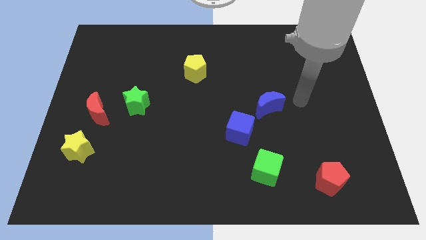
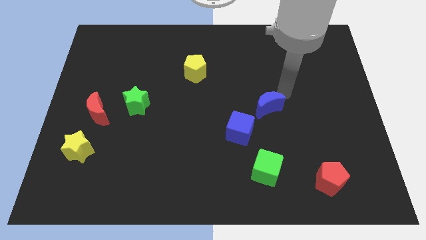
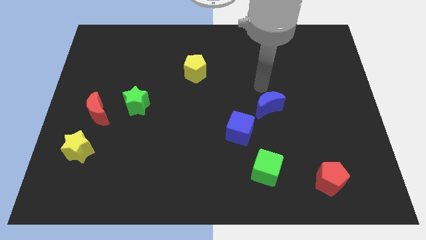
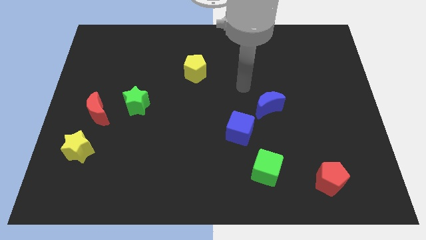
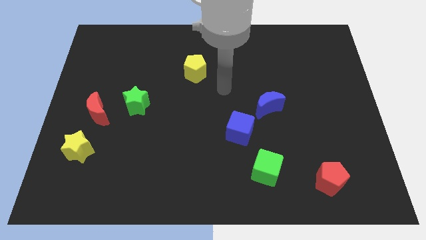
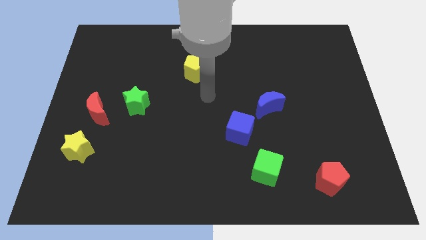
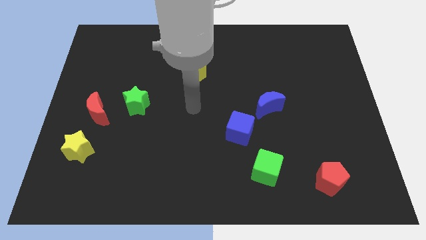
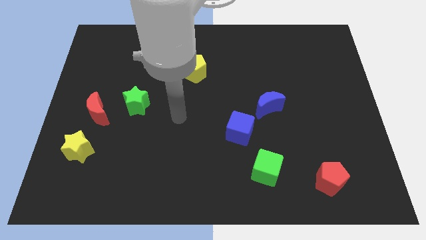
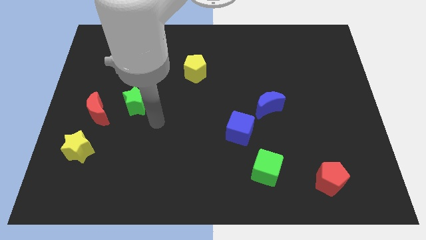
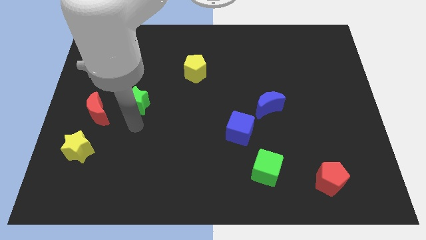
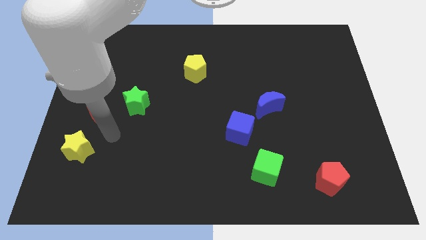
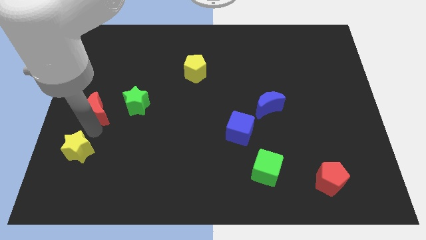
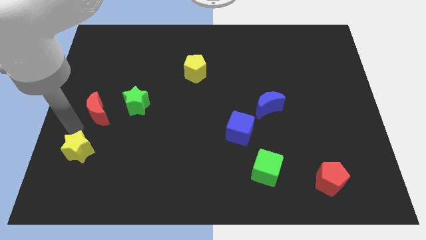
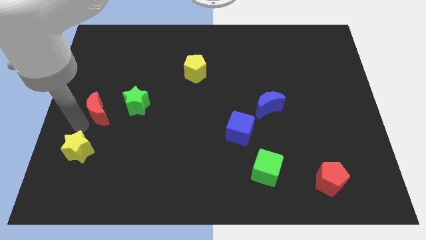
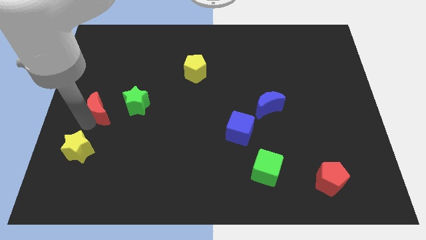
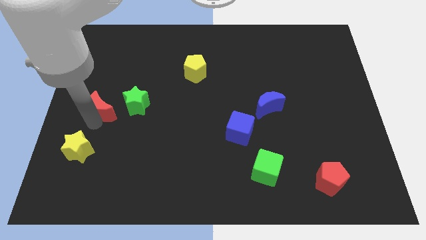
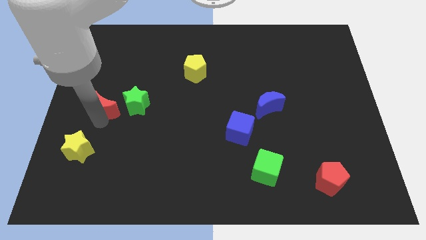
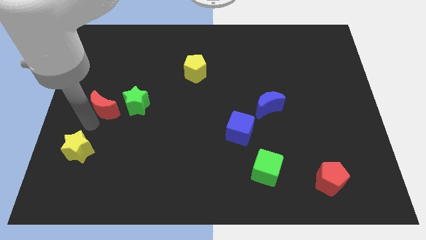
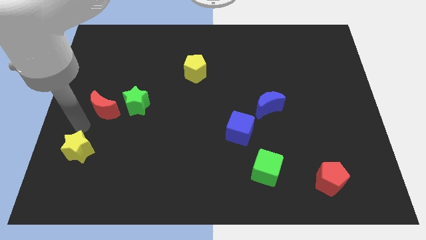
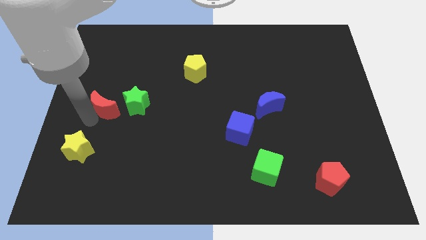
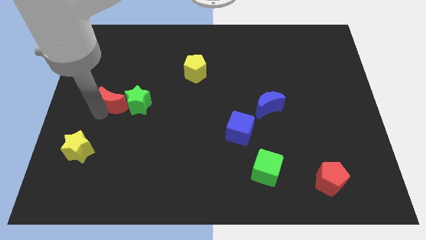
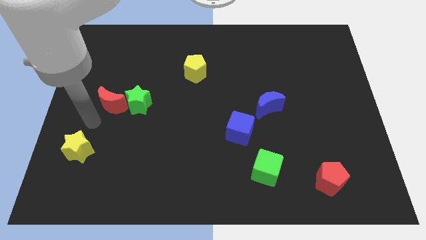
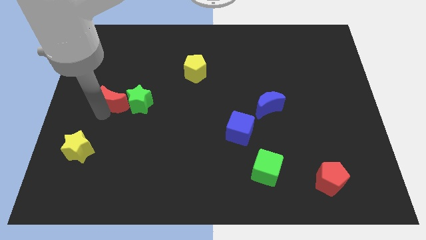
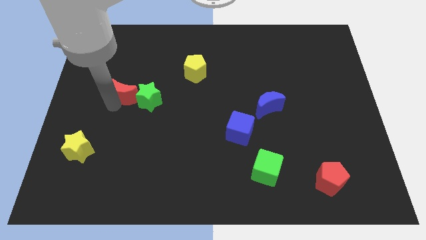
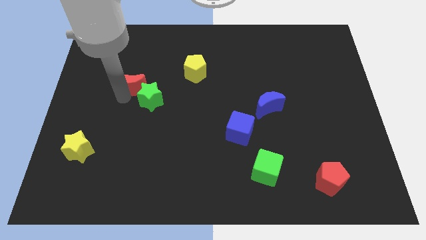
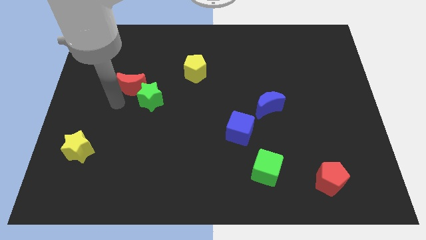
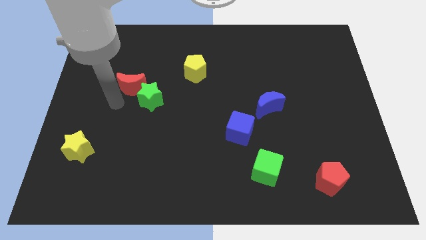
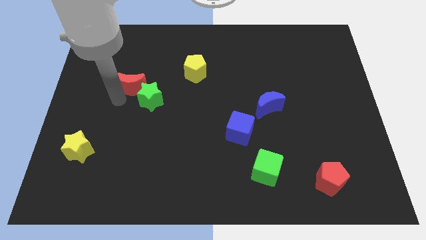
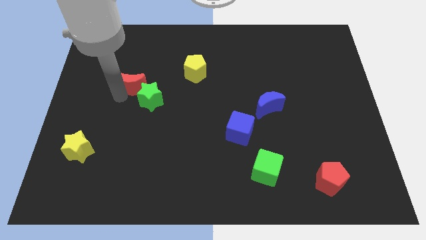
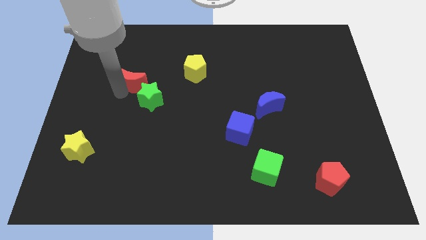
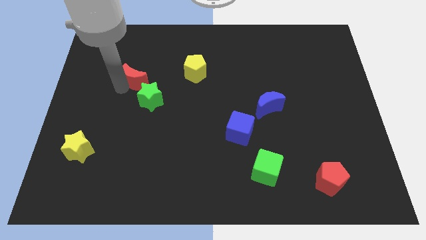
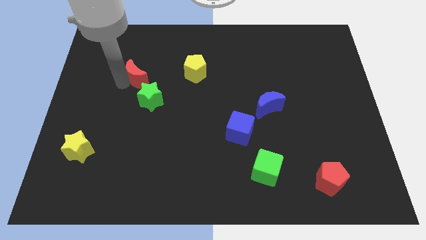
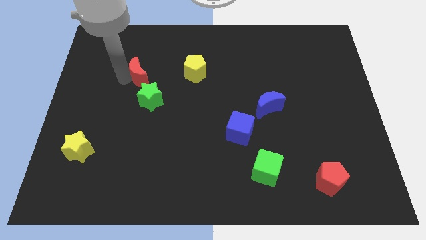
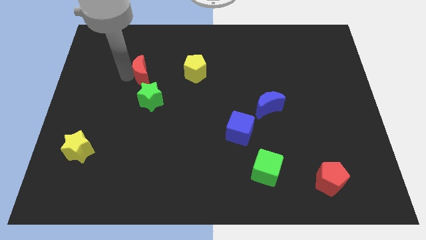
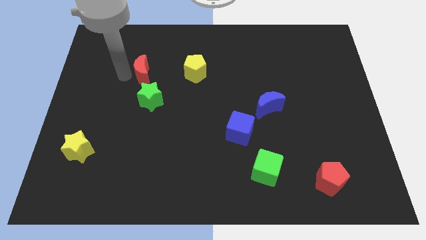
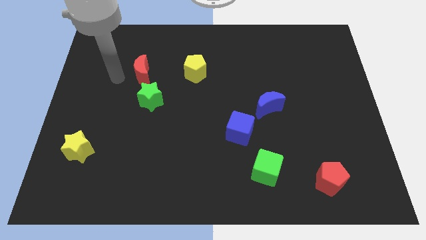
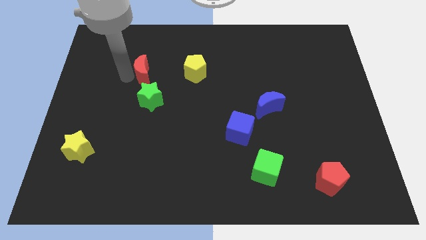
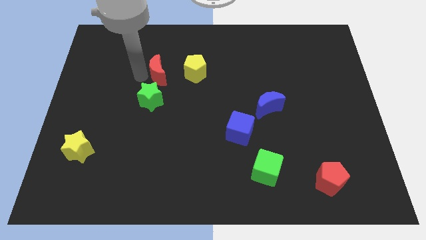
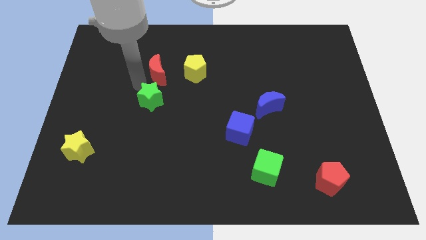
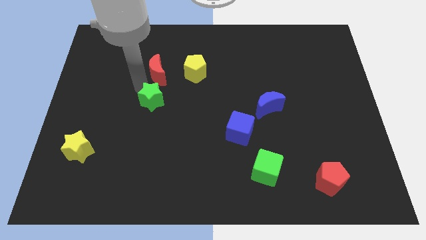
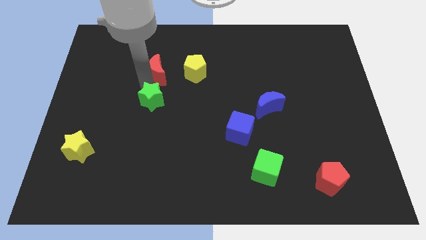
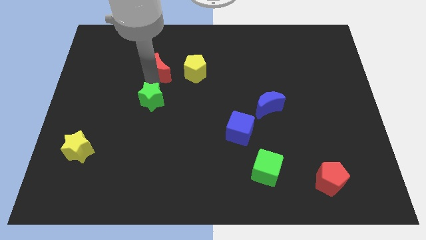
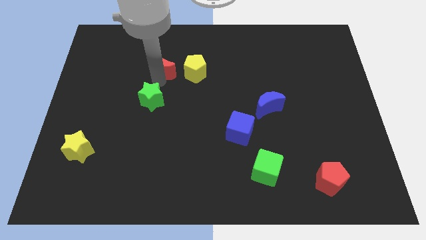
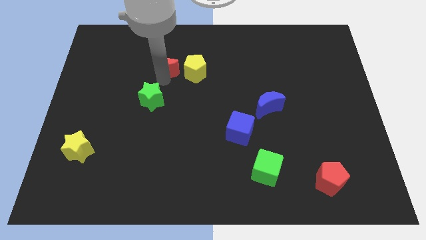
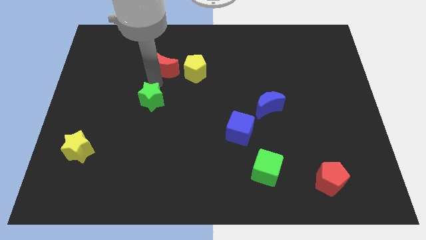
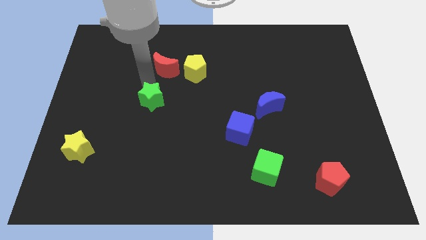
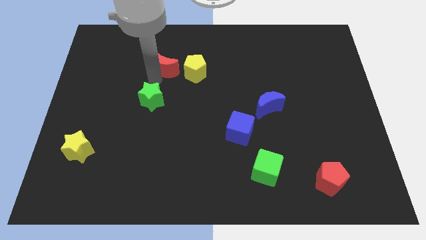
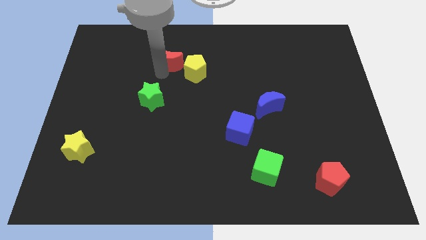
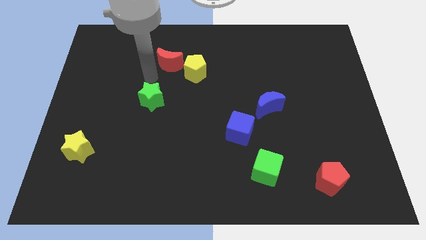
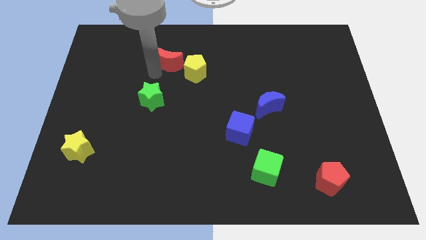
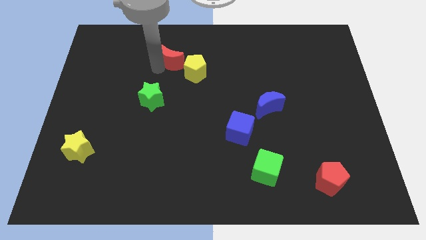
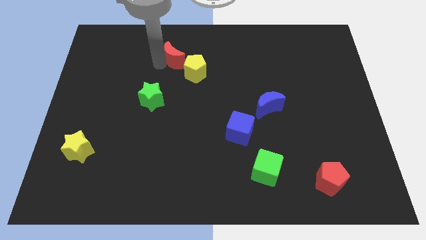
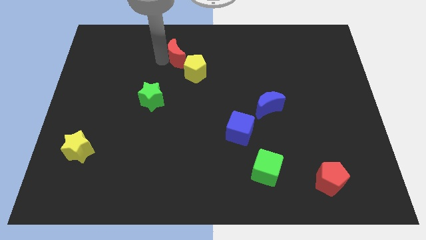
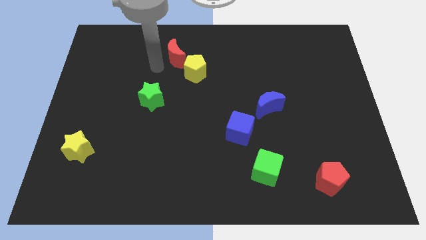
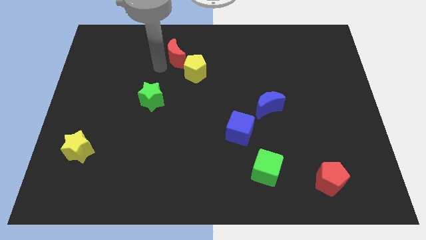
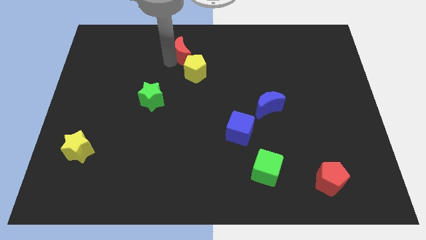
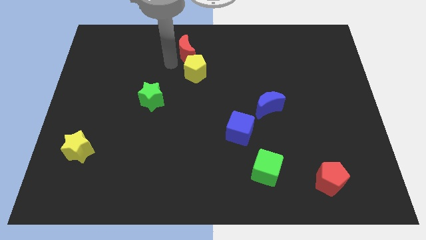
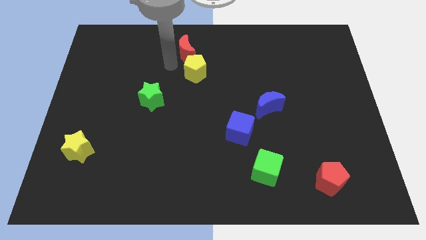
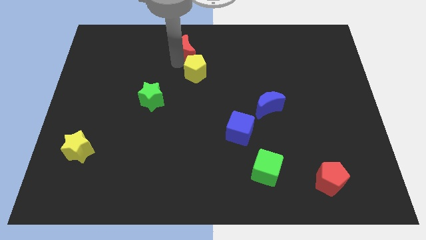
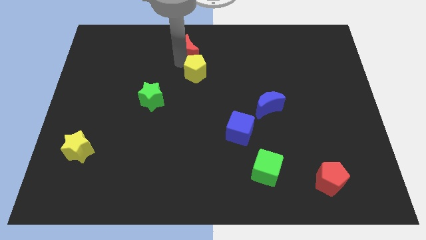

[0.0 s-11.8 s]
push the red moon to the top

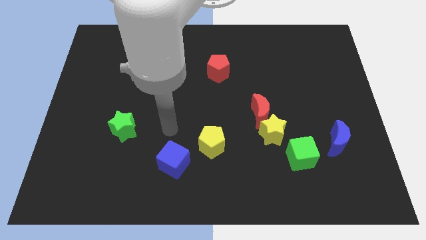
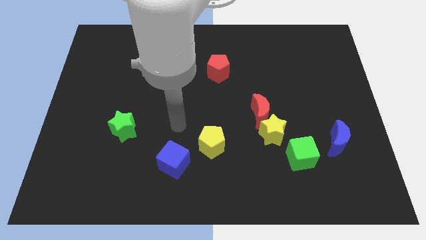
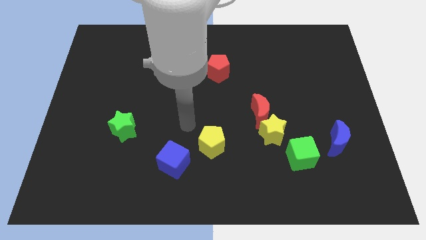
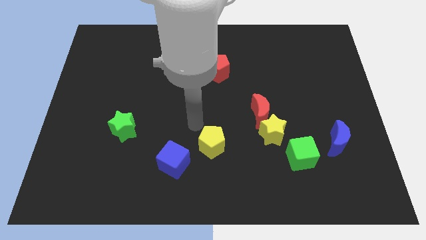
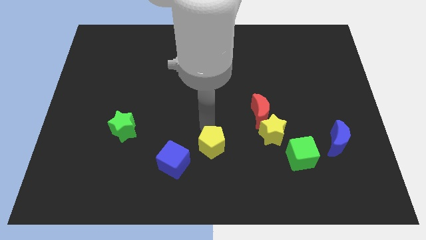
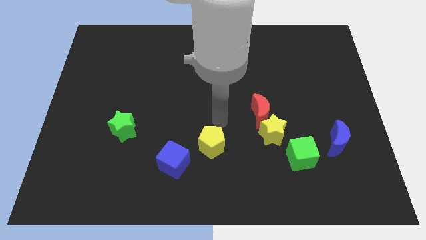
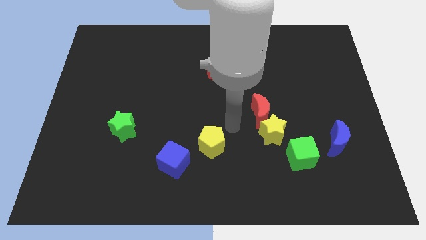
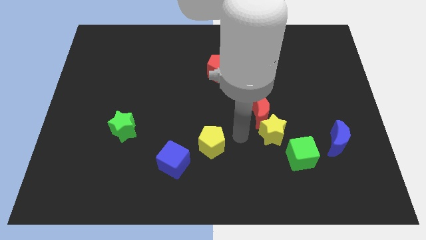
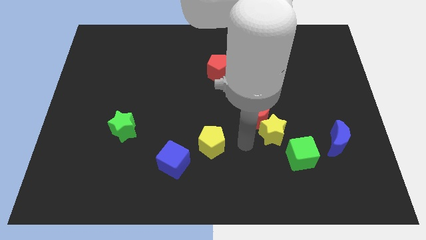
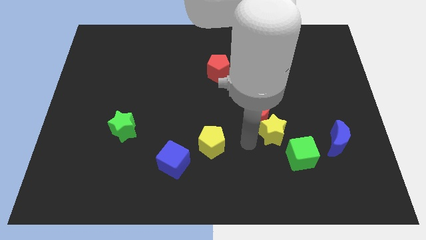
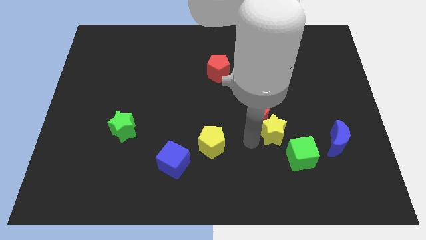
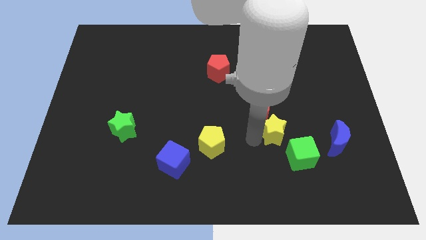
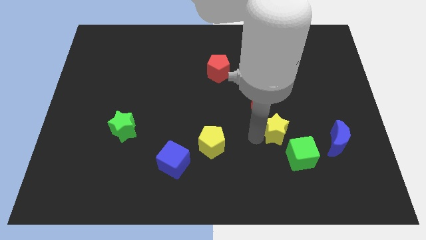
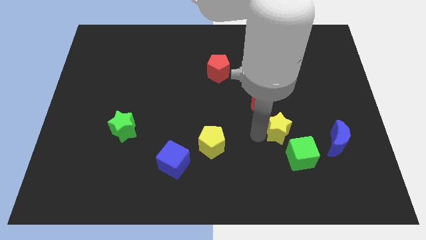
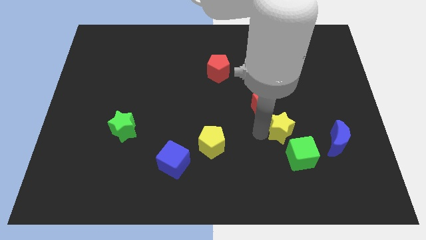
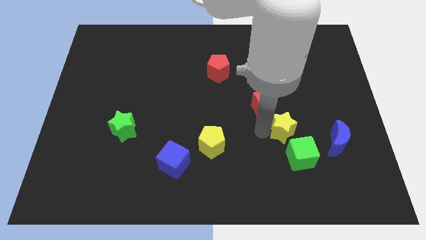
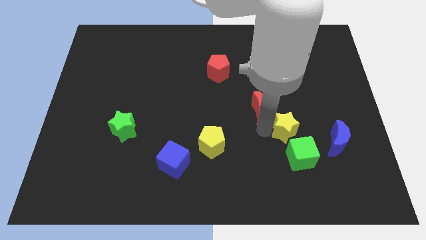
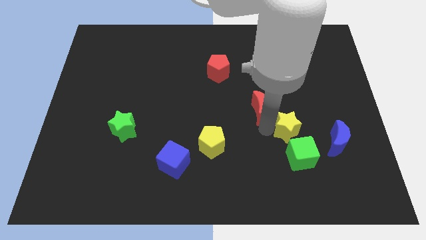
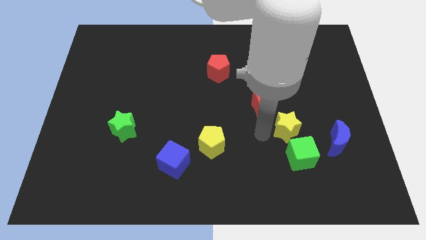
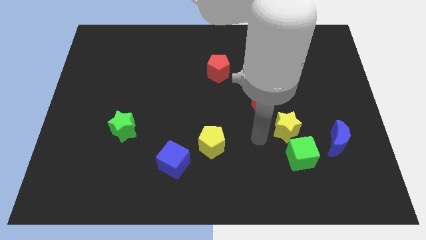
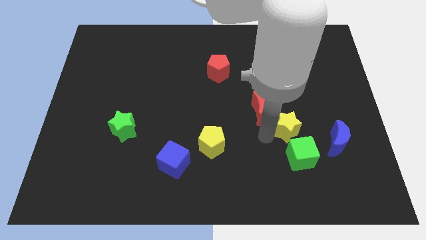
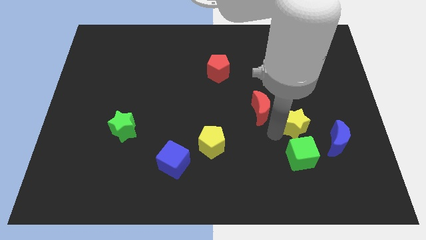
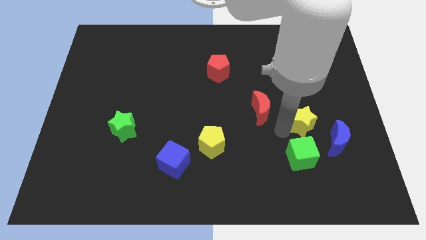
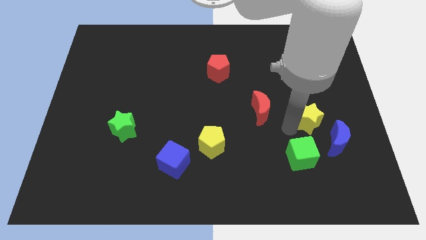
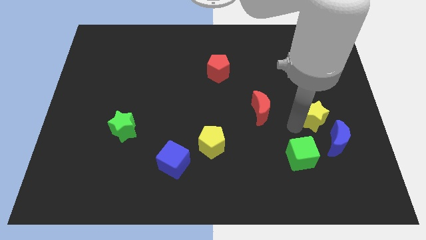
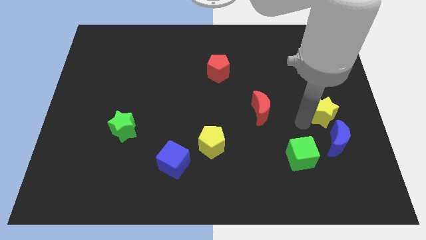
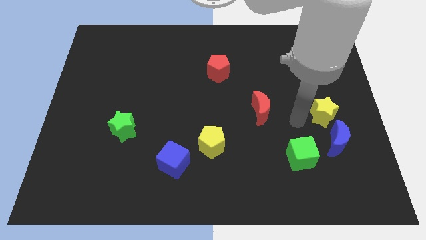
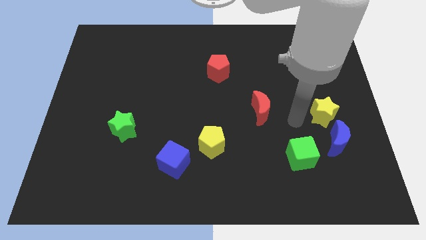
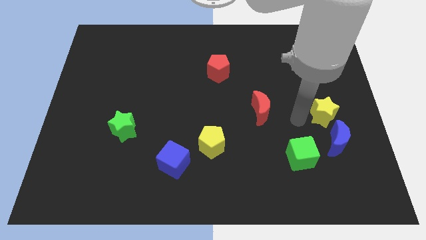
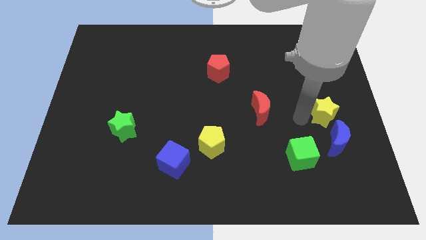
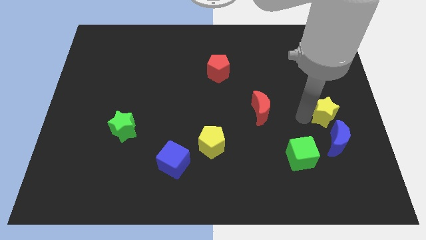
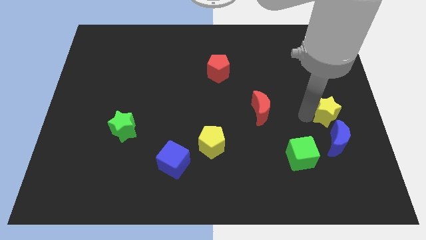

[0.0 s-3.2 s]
push the yellow star to the right side of the board
